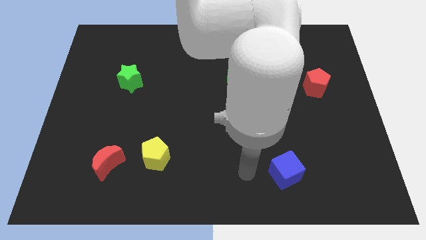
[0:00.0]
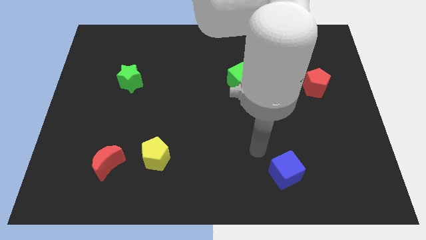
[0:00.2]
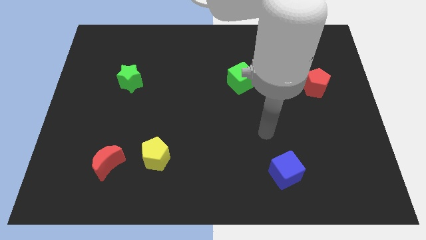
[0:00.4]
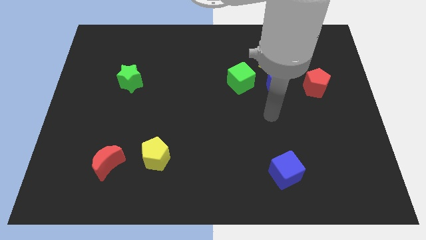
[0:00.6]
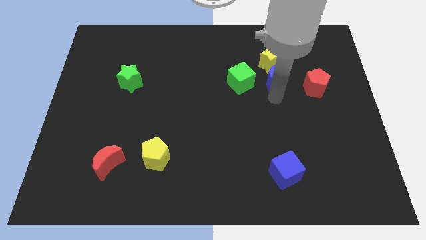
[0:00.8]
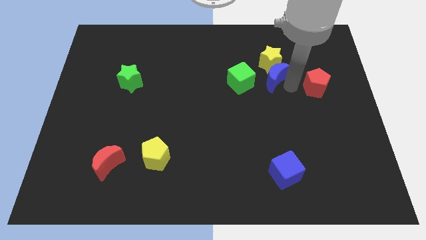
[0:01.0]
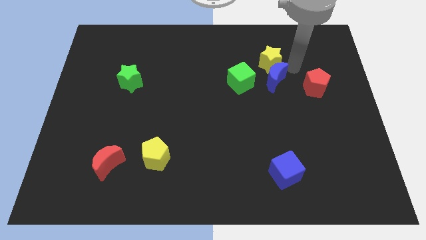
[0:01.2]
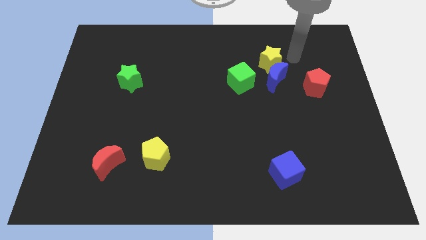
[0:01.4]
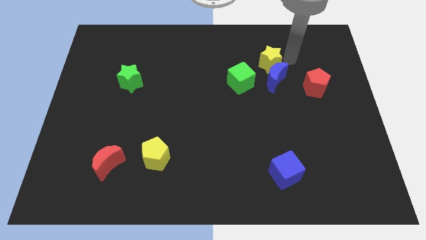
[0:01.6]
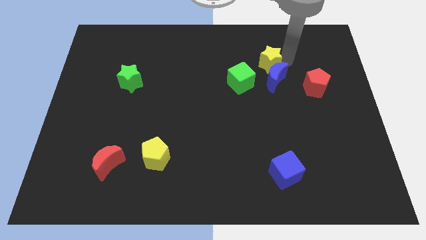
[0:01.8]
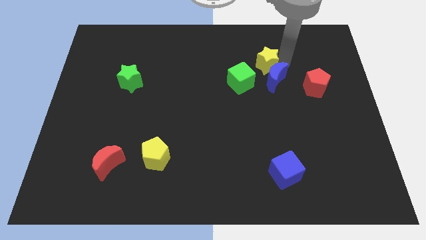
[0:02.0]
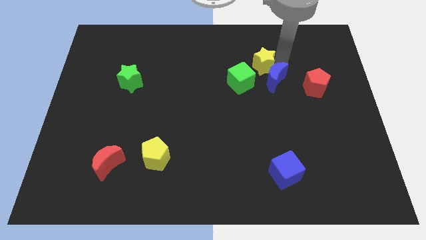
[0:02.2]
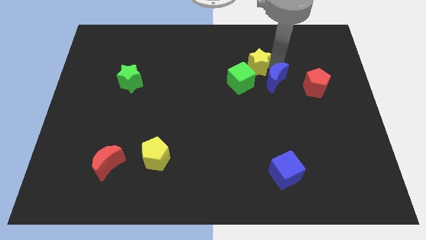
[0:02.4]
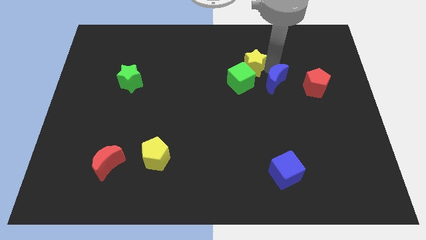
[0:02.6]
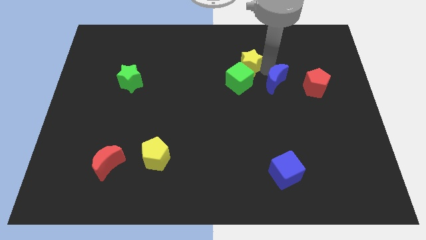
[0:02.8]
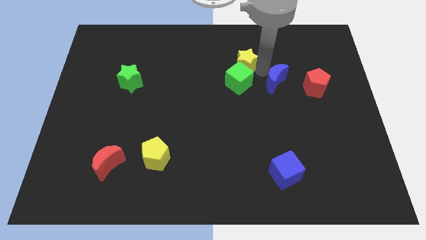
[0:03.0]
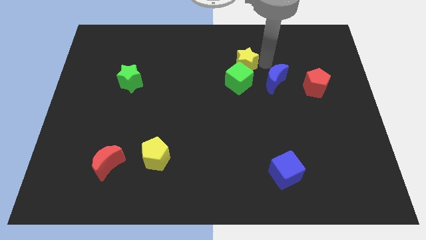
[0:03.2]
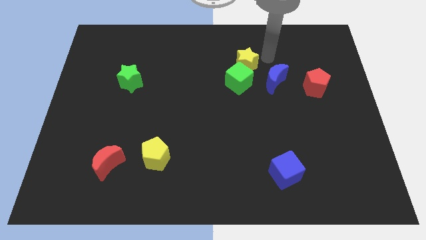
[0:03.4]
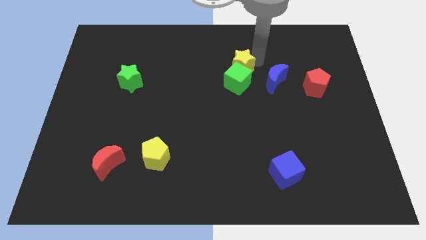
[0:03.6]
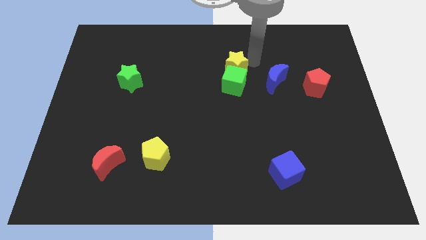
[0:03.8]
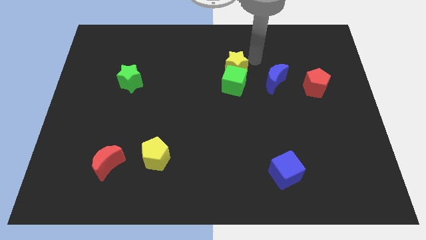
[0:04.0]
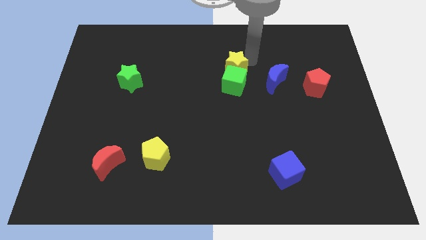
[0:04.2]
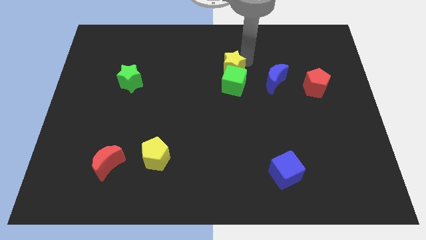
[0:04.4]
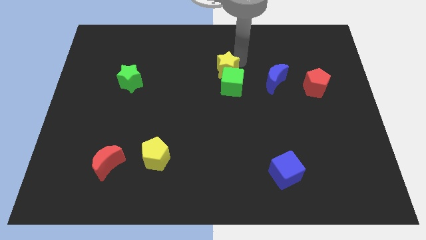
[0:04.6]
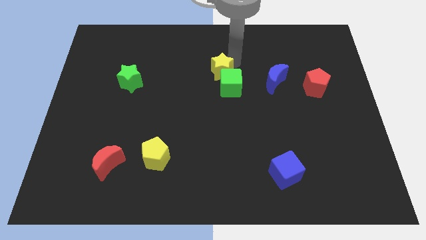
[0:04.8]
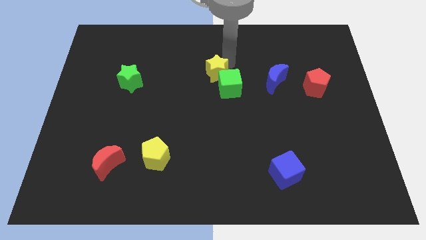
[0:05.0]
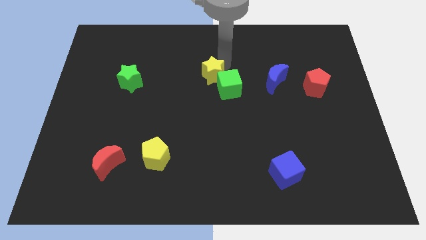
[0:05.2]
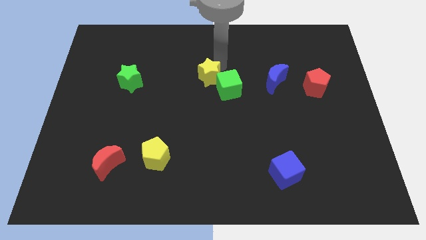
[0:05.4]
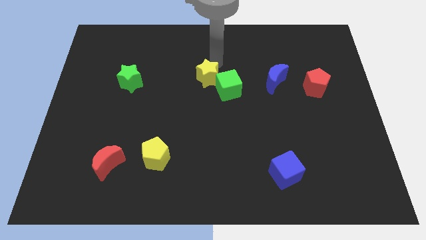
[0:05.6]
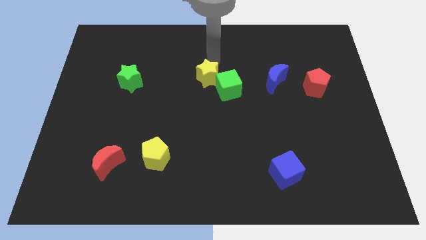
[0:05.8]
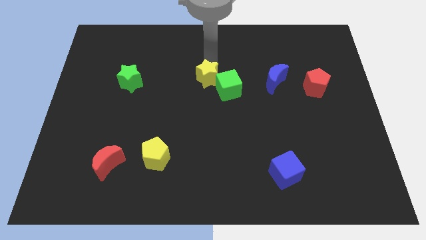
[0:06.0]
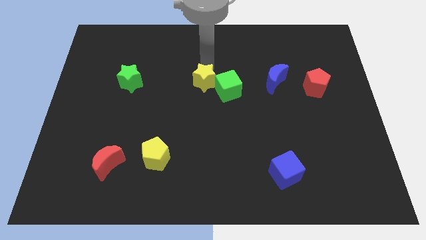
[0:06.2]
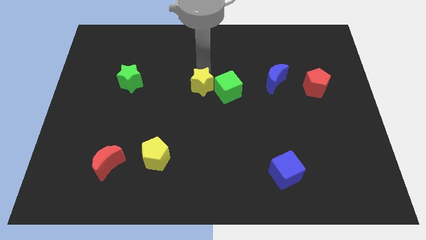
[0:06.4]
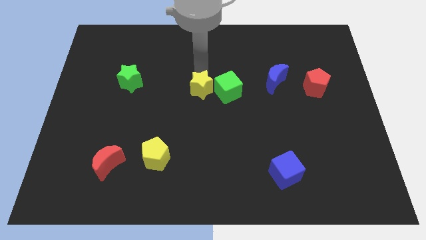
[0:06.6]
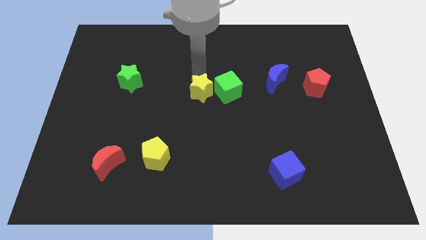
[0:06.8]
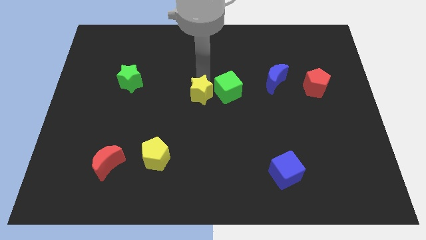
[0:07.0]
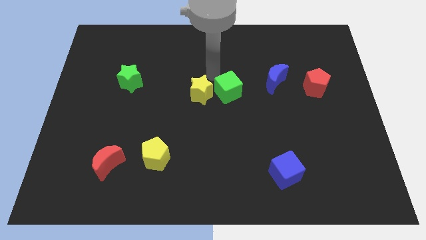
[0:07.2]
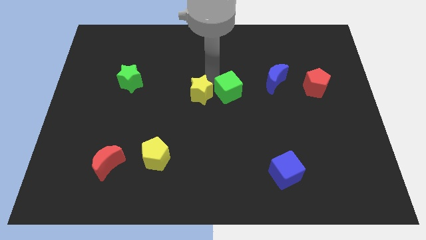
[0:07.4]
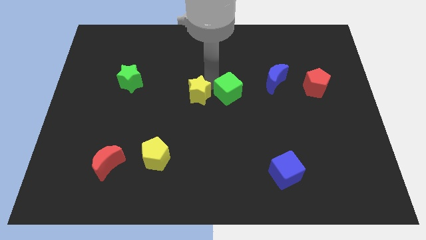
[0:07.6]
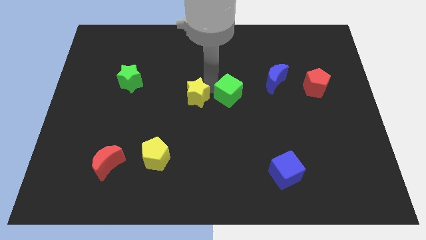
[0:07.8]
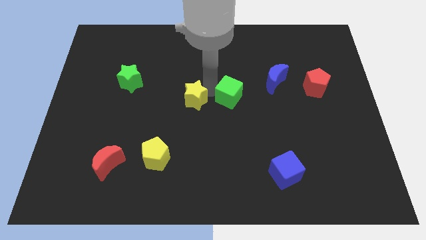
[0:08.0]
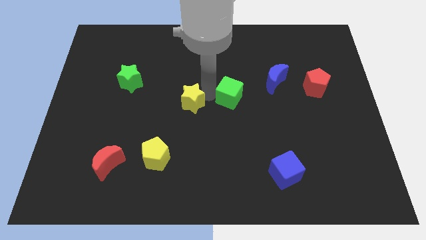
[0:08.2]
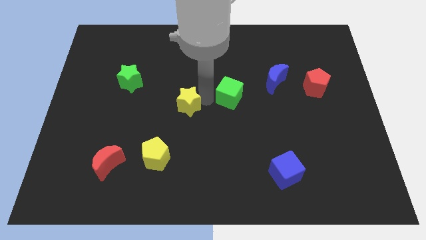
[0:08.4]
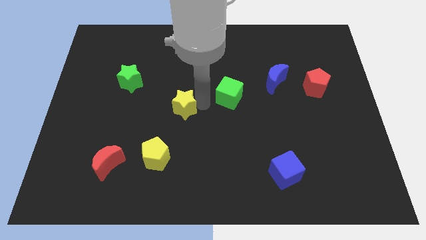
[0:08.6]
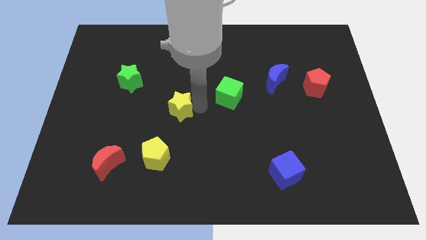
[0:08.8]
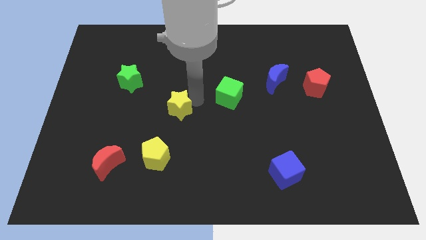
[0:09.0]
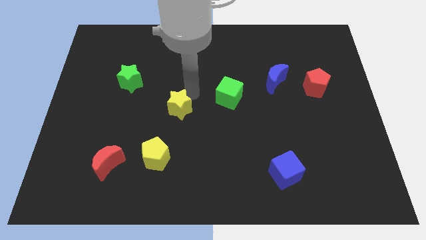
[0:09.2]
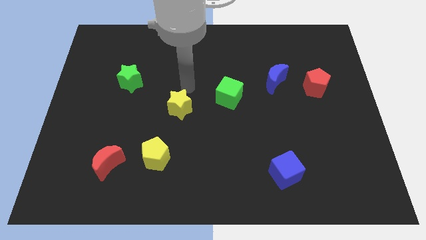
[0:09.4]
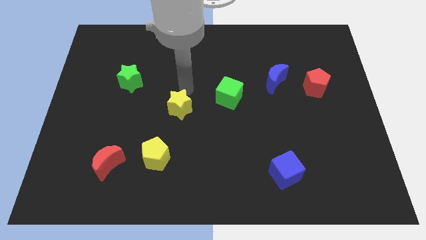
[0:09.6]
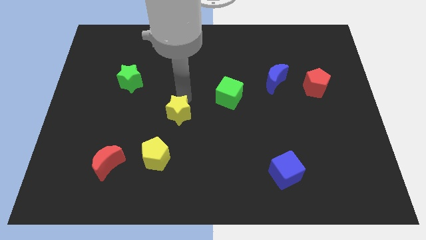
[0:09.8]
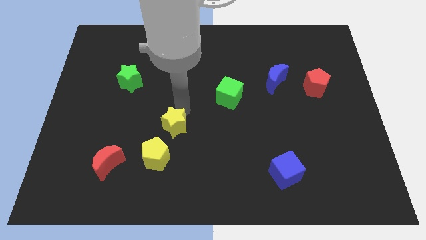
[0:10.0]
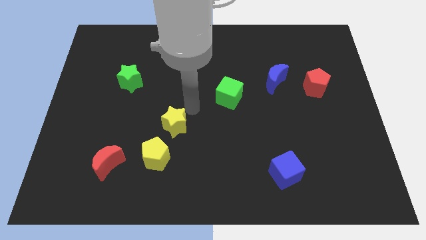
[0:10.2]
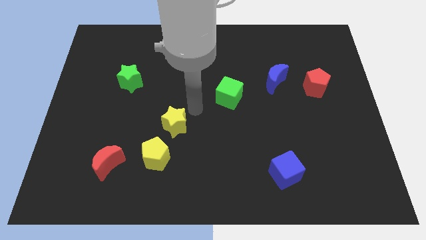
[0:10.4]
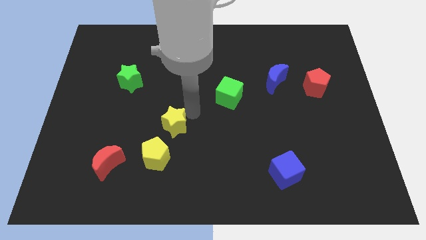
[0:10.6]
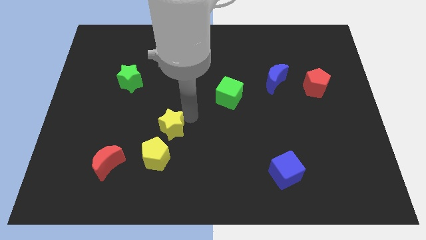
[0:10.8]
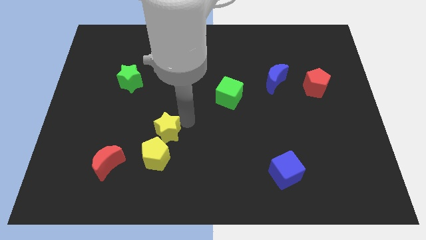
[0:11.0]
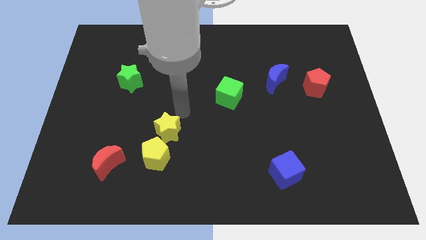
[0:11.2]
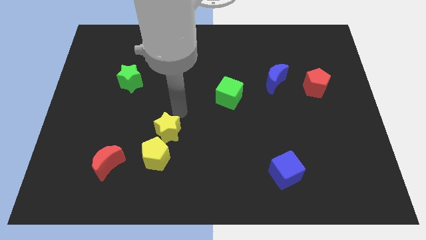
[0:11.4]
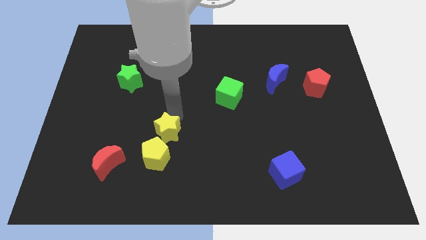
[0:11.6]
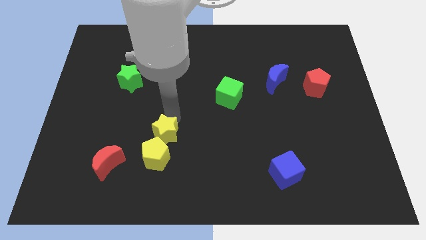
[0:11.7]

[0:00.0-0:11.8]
slide the yellow star towards the yellow pentagon
